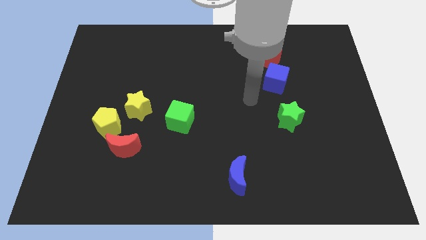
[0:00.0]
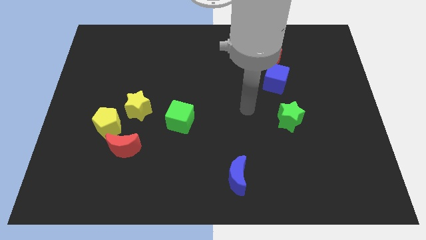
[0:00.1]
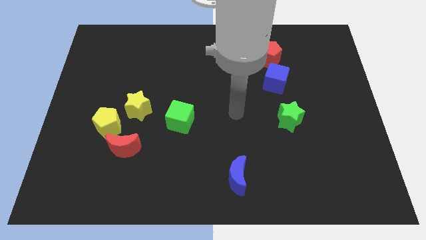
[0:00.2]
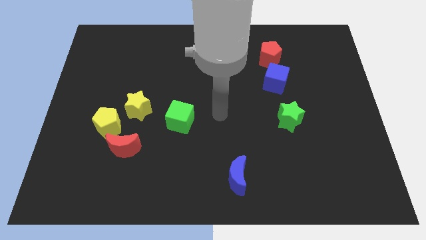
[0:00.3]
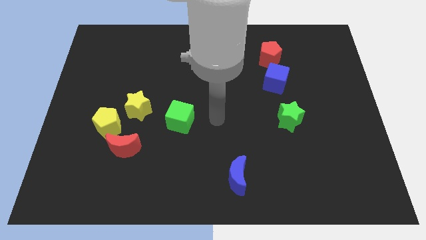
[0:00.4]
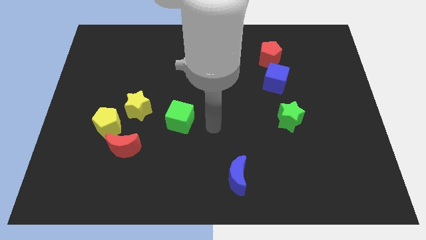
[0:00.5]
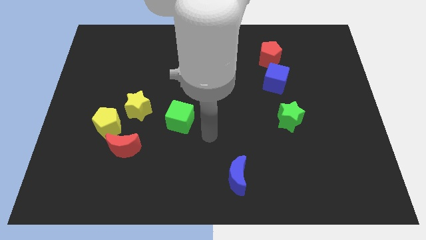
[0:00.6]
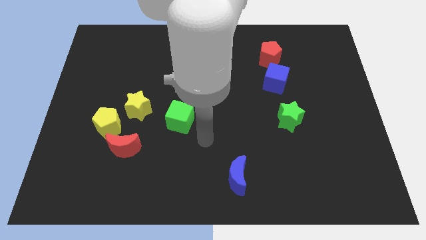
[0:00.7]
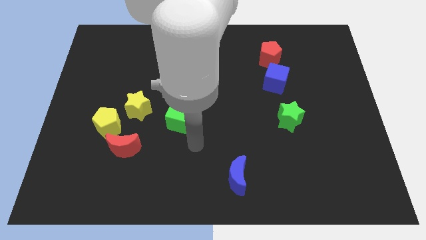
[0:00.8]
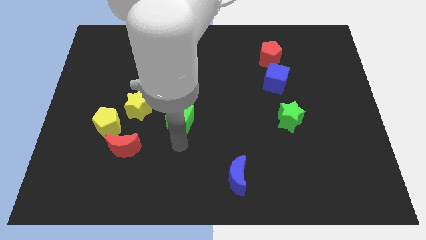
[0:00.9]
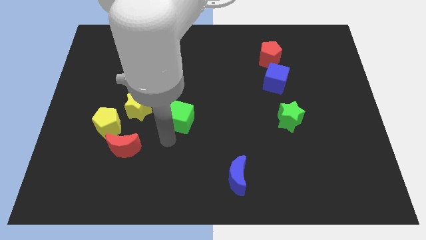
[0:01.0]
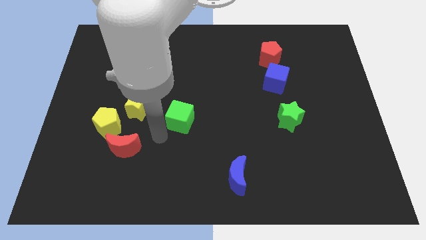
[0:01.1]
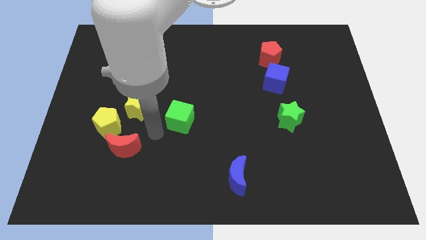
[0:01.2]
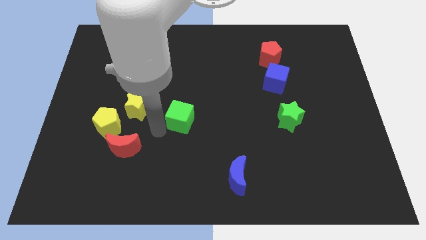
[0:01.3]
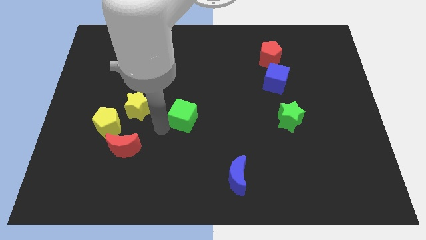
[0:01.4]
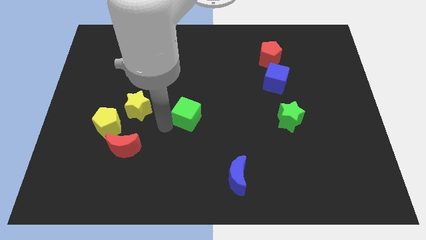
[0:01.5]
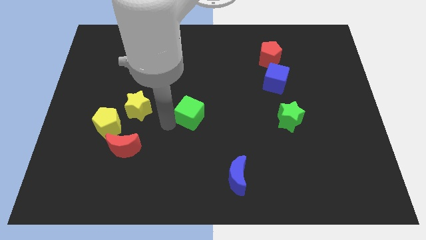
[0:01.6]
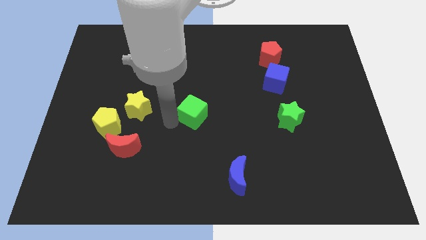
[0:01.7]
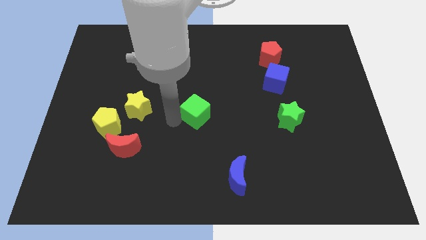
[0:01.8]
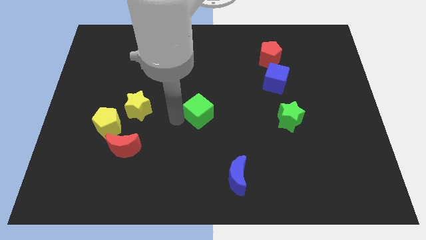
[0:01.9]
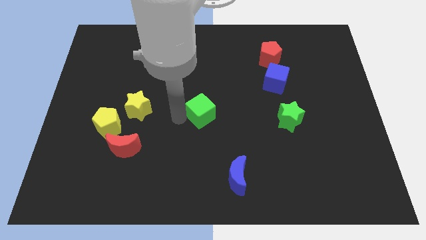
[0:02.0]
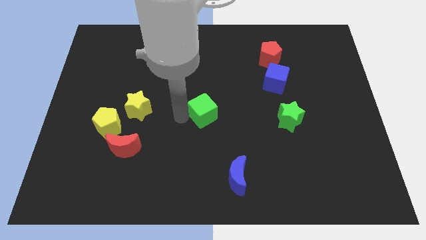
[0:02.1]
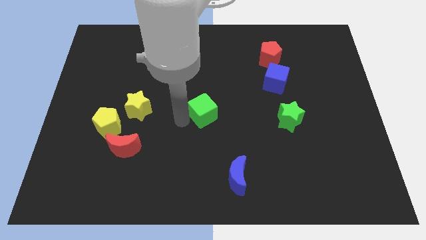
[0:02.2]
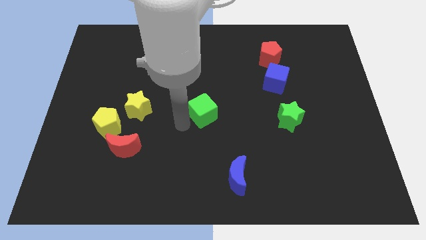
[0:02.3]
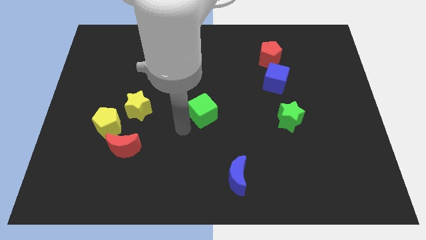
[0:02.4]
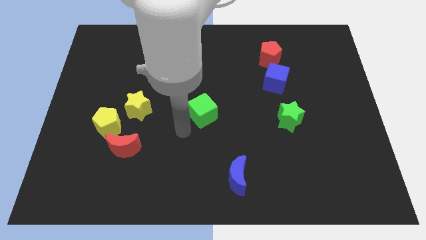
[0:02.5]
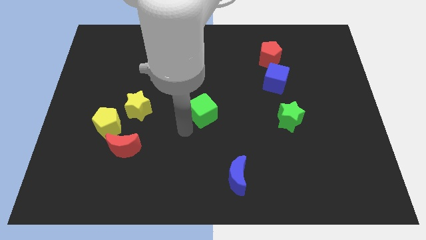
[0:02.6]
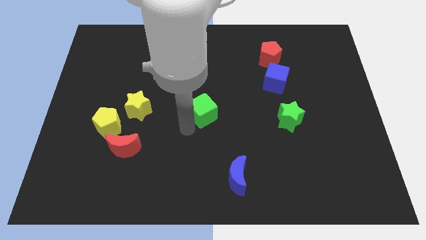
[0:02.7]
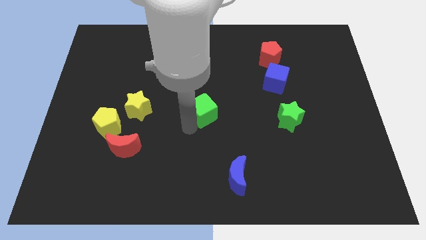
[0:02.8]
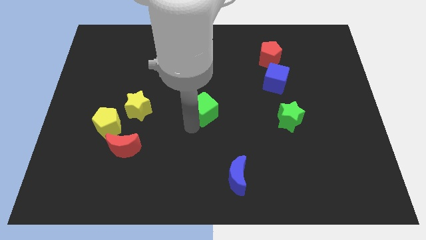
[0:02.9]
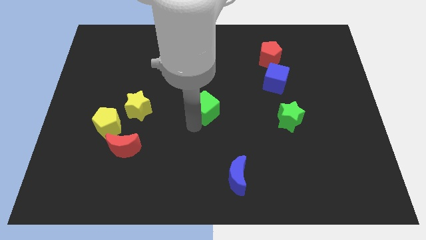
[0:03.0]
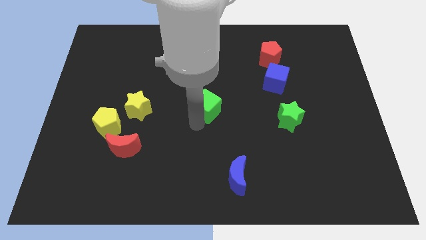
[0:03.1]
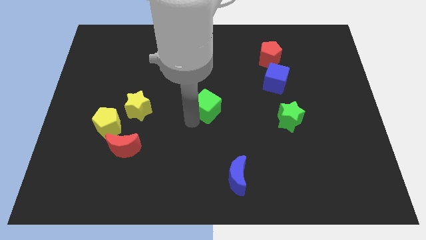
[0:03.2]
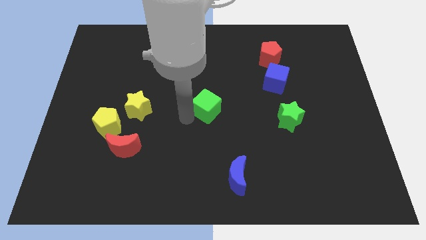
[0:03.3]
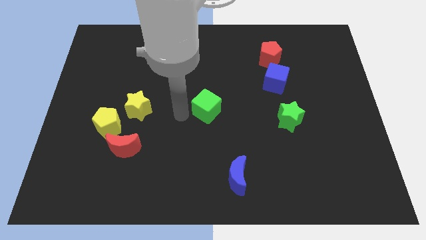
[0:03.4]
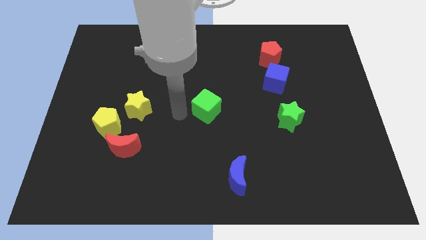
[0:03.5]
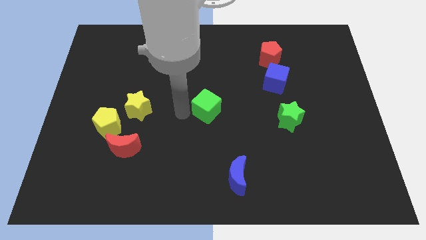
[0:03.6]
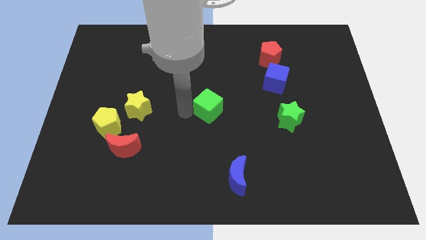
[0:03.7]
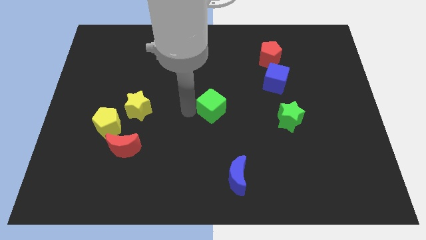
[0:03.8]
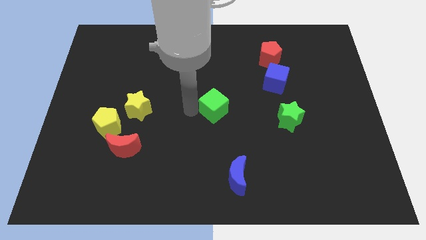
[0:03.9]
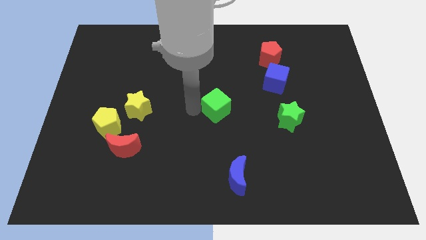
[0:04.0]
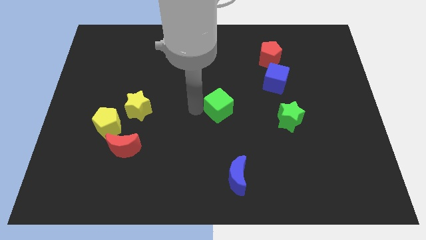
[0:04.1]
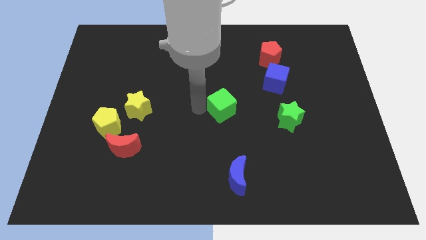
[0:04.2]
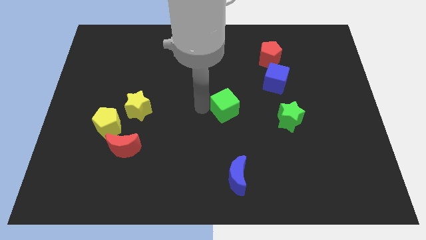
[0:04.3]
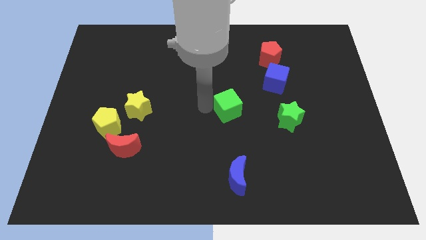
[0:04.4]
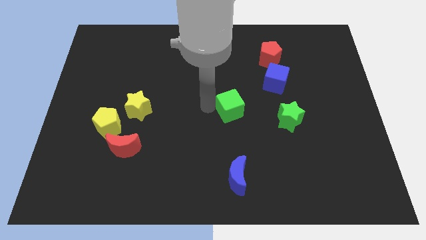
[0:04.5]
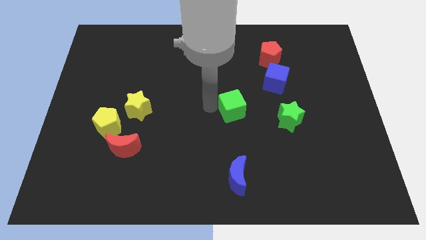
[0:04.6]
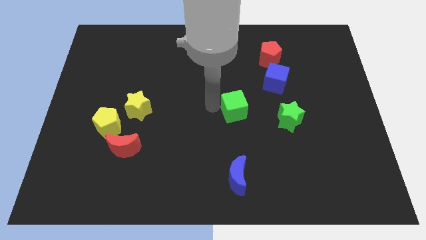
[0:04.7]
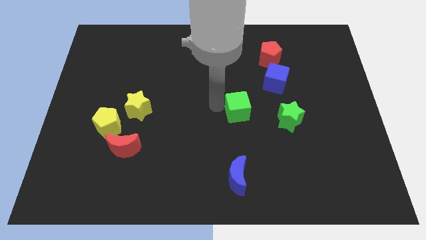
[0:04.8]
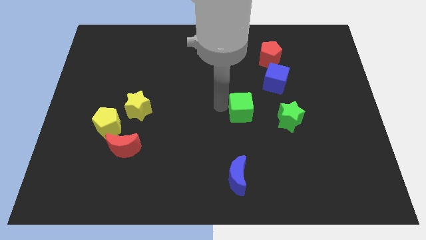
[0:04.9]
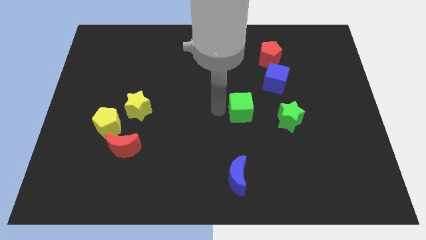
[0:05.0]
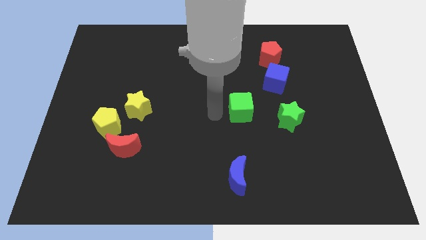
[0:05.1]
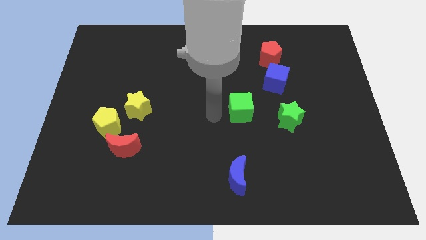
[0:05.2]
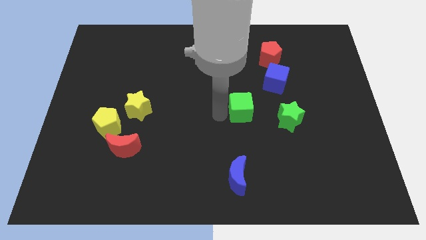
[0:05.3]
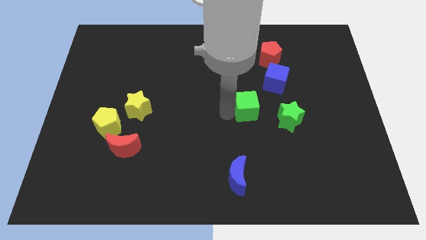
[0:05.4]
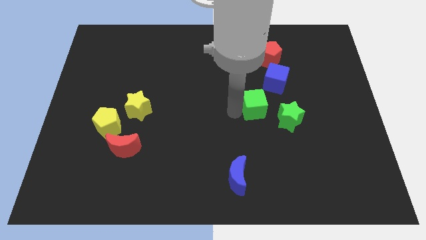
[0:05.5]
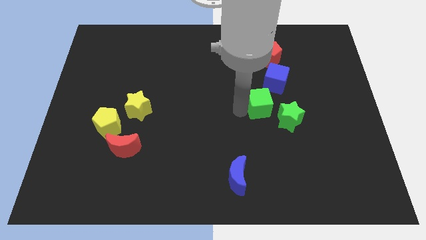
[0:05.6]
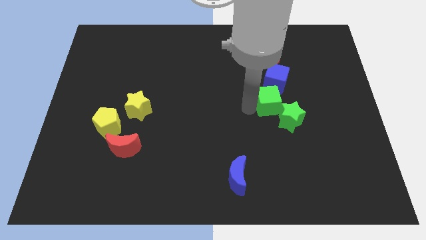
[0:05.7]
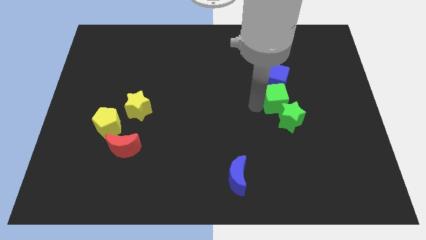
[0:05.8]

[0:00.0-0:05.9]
slide the green cube right

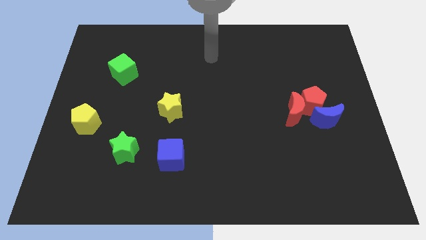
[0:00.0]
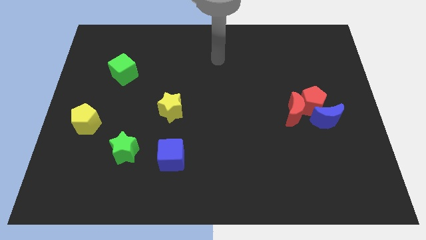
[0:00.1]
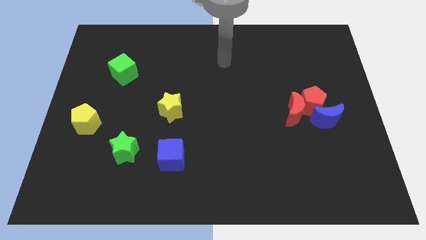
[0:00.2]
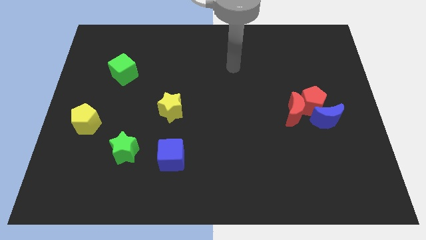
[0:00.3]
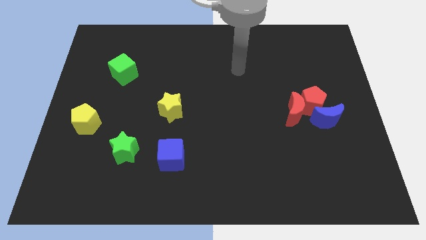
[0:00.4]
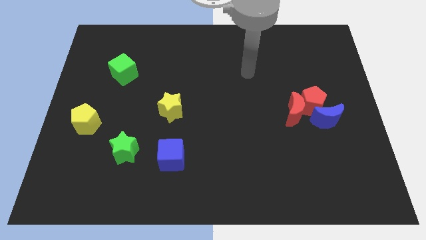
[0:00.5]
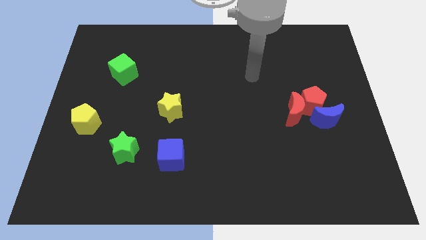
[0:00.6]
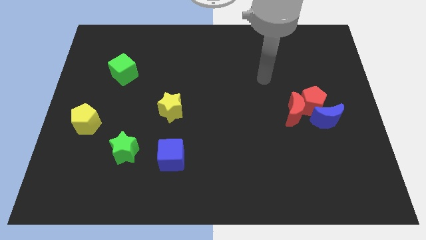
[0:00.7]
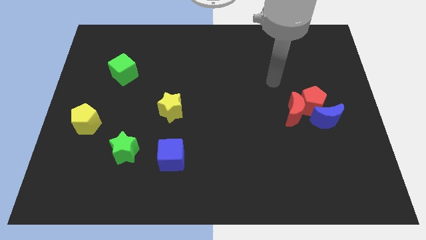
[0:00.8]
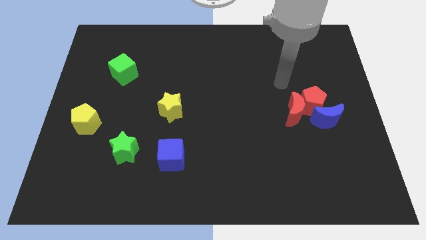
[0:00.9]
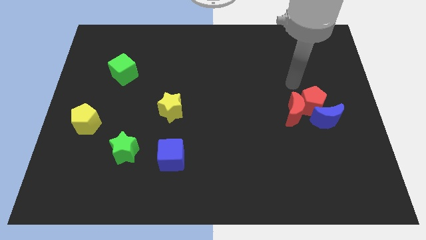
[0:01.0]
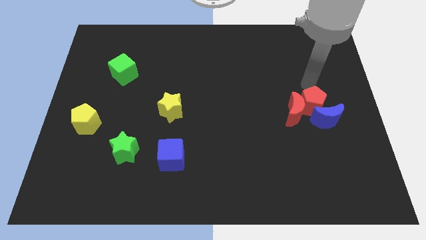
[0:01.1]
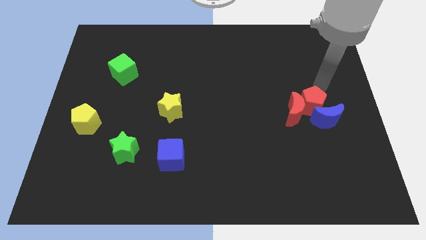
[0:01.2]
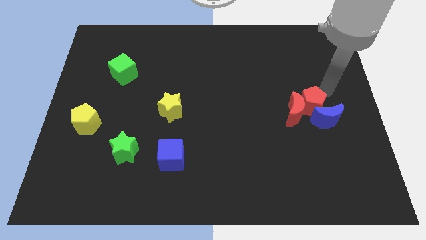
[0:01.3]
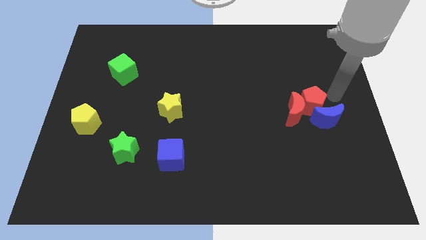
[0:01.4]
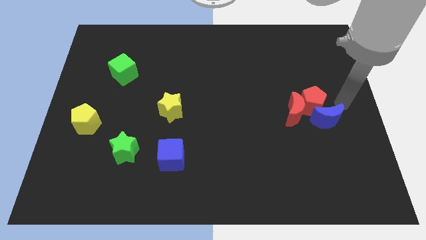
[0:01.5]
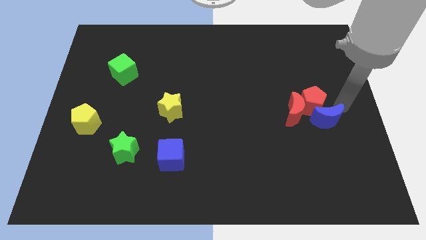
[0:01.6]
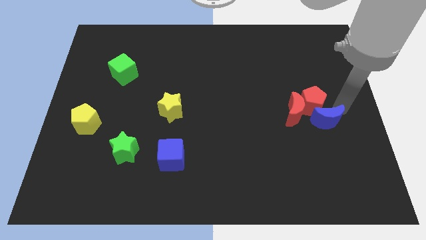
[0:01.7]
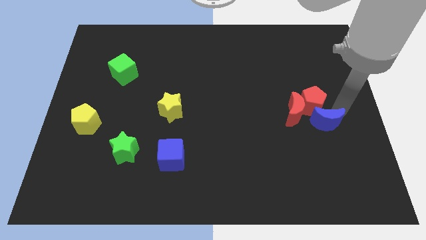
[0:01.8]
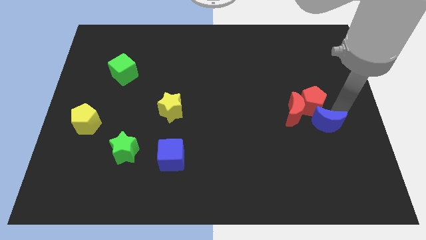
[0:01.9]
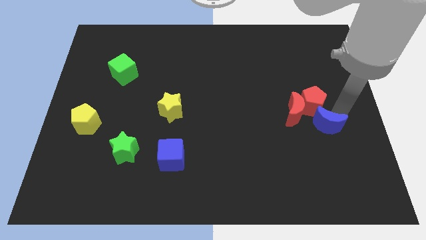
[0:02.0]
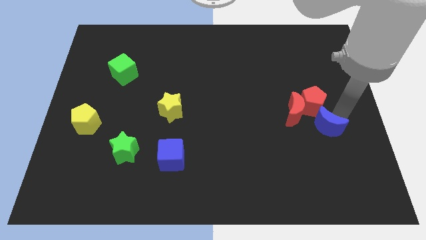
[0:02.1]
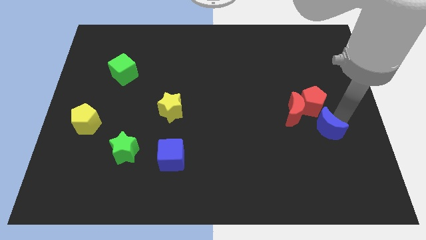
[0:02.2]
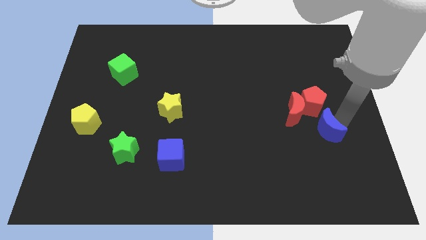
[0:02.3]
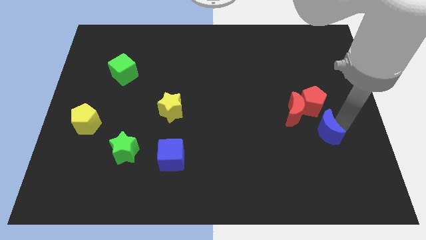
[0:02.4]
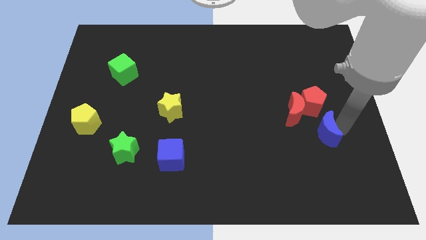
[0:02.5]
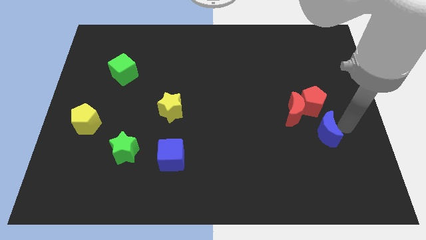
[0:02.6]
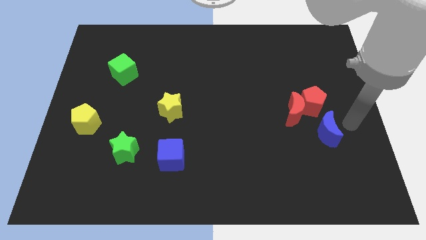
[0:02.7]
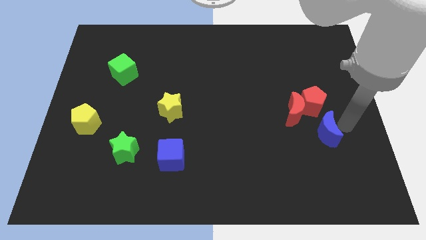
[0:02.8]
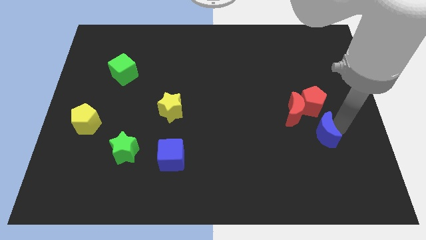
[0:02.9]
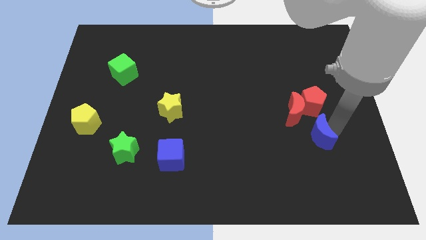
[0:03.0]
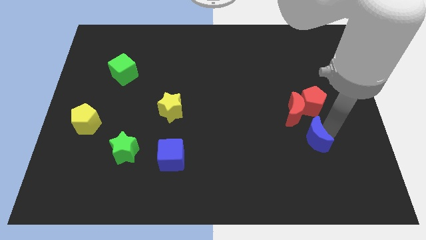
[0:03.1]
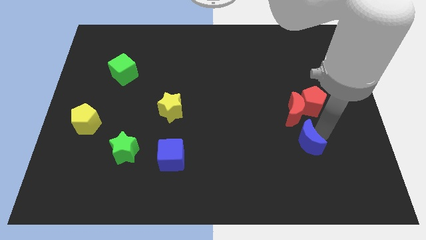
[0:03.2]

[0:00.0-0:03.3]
move the blue moon downwards and left a bit
